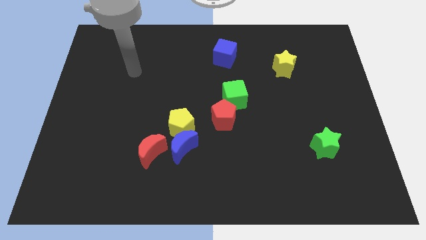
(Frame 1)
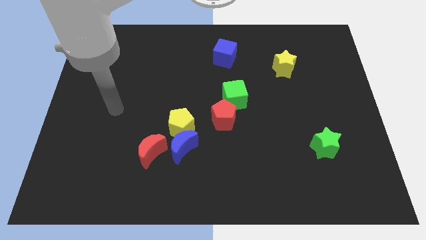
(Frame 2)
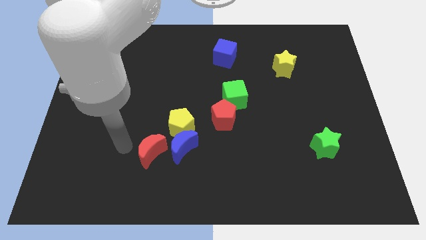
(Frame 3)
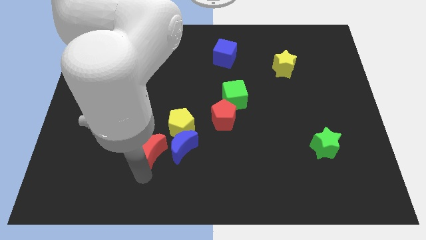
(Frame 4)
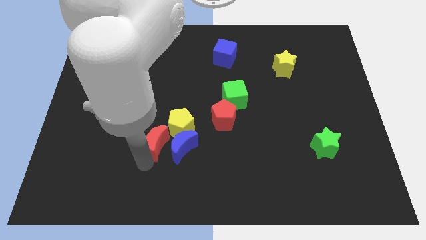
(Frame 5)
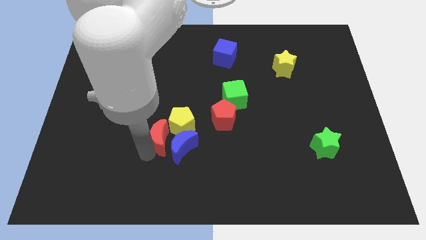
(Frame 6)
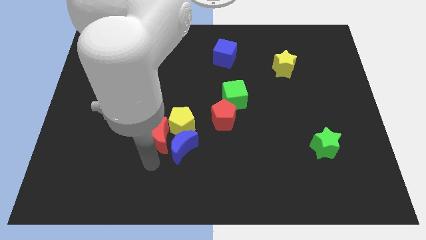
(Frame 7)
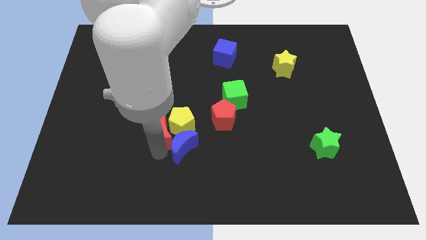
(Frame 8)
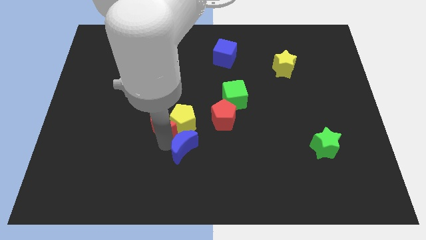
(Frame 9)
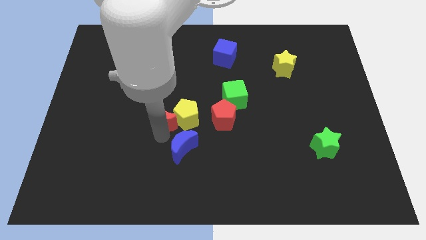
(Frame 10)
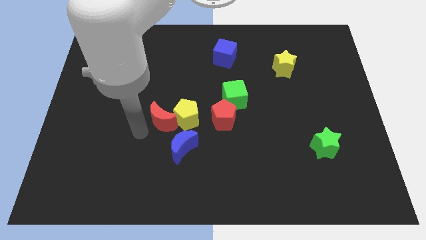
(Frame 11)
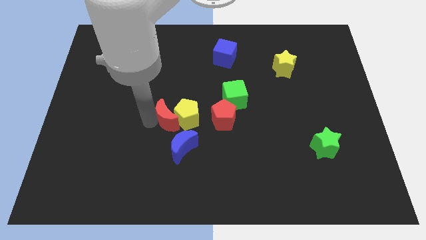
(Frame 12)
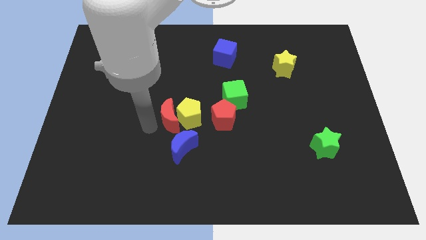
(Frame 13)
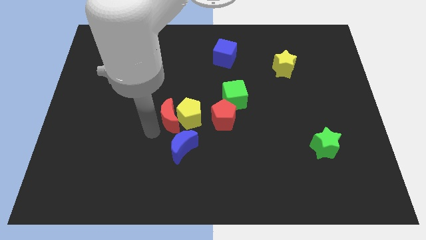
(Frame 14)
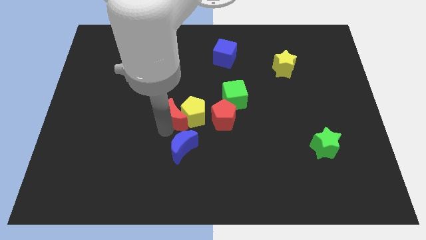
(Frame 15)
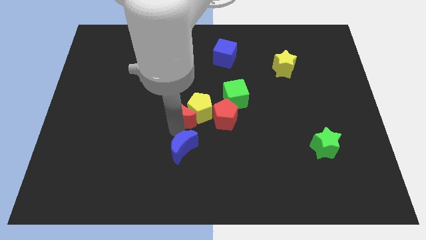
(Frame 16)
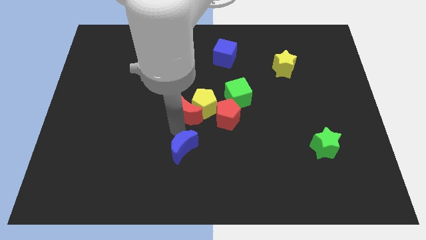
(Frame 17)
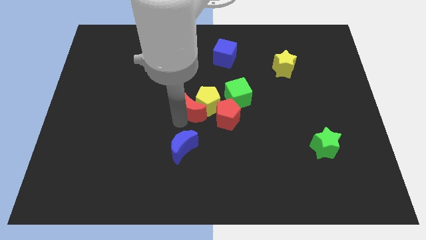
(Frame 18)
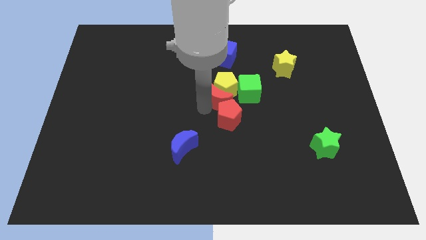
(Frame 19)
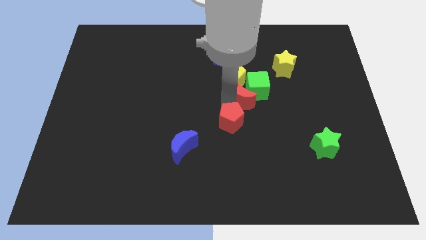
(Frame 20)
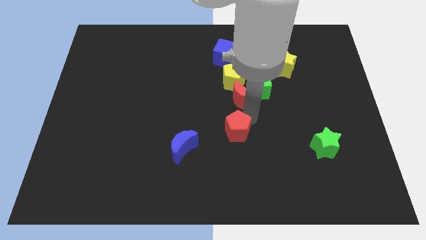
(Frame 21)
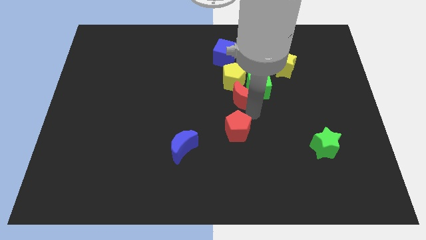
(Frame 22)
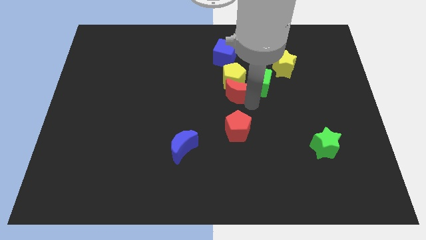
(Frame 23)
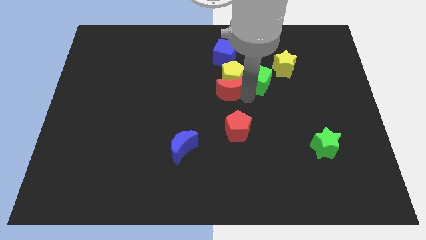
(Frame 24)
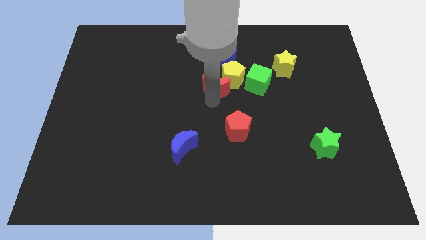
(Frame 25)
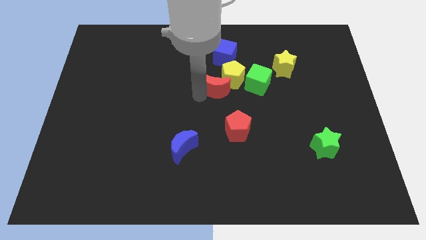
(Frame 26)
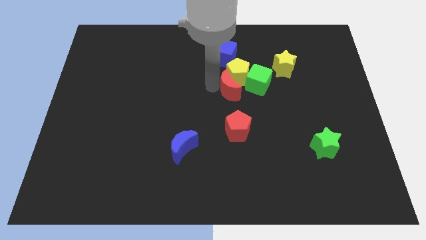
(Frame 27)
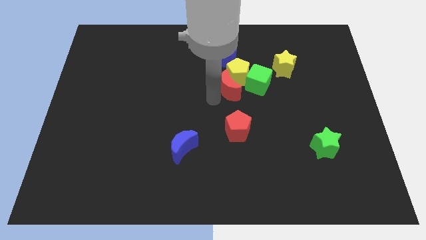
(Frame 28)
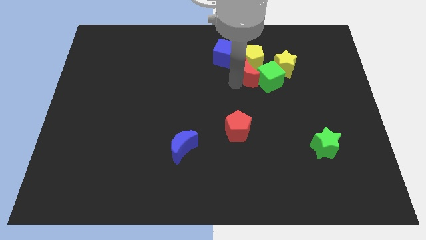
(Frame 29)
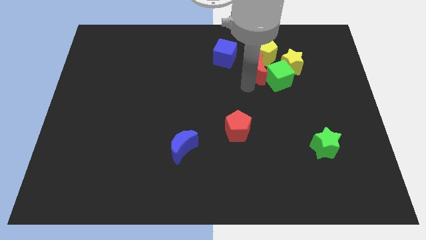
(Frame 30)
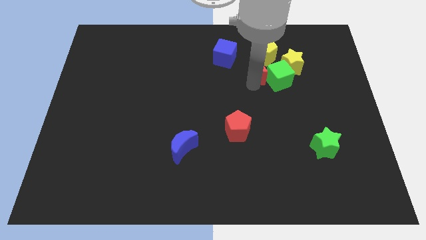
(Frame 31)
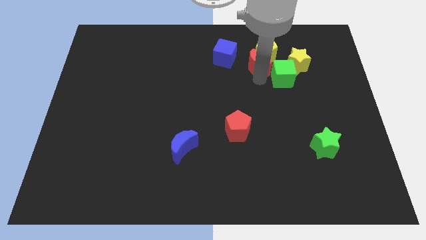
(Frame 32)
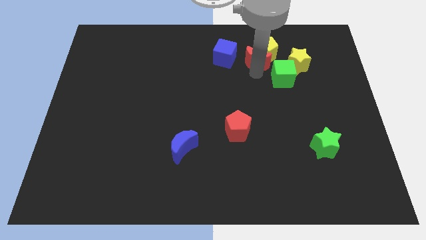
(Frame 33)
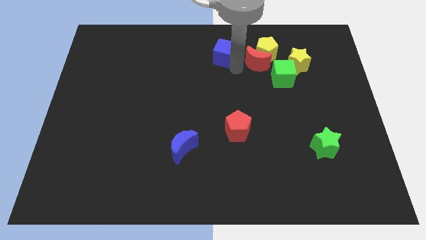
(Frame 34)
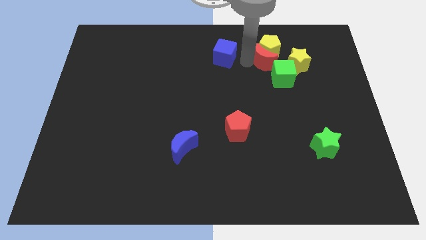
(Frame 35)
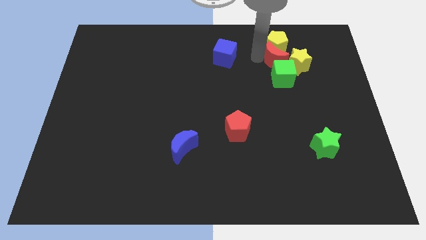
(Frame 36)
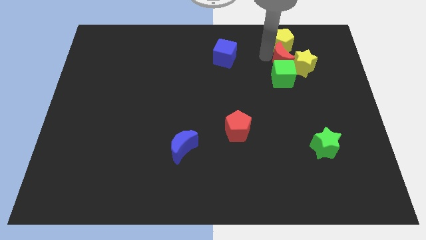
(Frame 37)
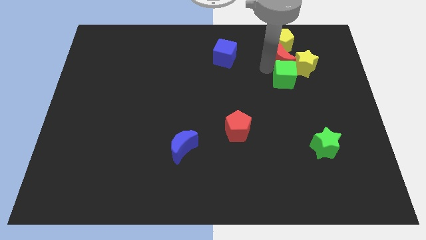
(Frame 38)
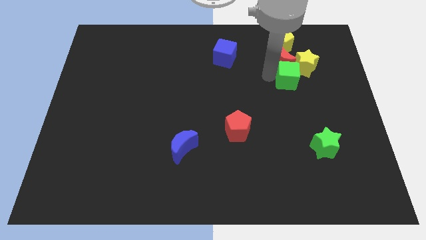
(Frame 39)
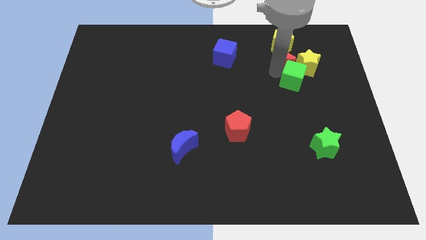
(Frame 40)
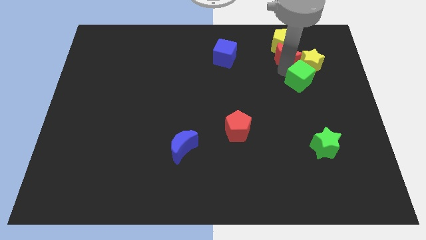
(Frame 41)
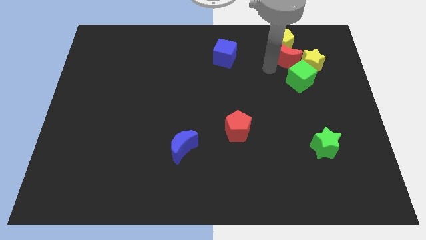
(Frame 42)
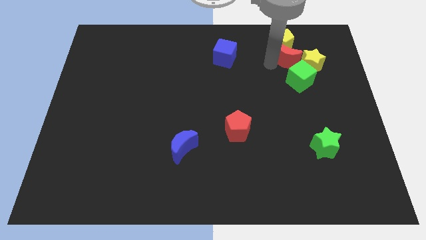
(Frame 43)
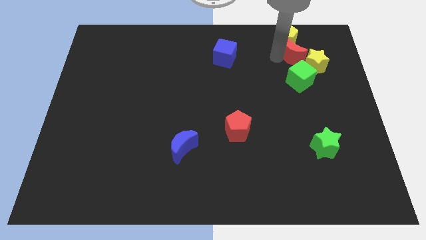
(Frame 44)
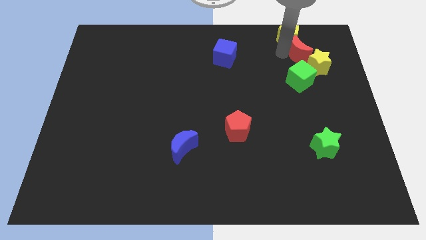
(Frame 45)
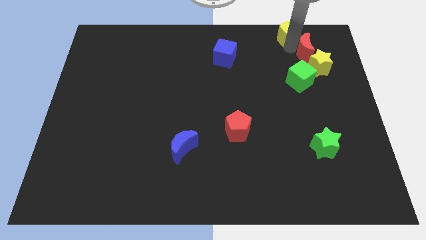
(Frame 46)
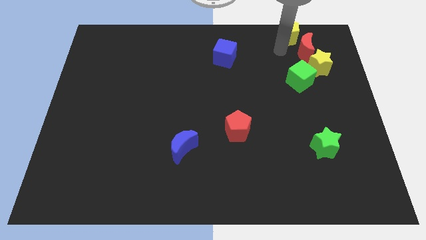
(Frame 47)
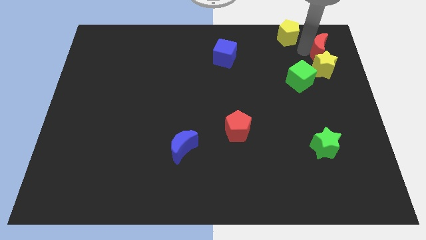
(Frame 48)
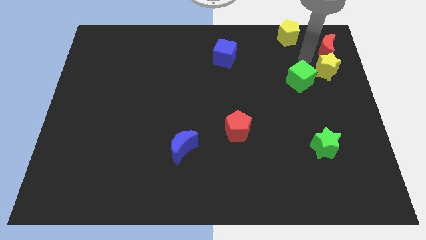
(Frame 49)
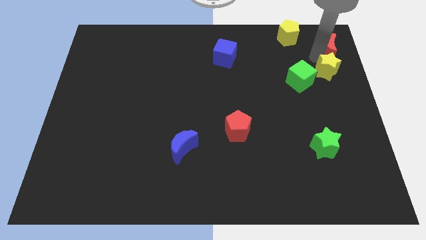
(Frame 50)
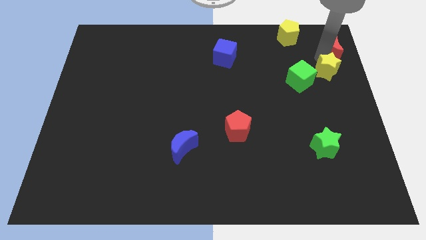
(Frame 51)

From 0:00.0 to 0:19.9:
move the red moon to the top right of the board

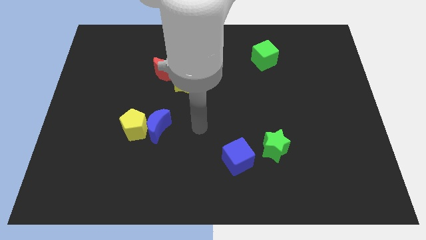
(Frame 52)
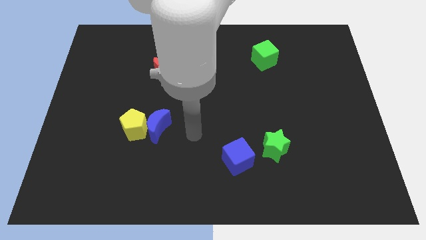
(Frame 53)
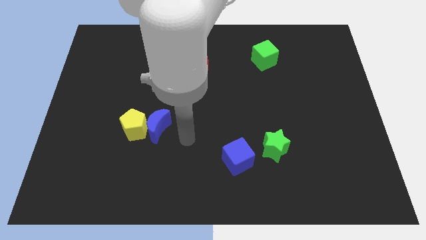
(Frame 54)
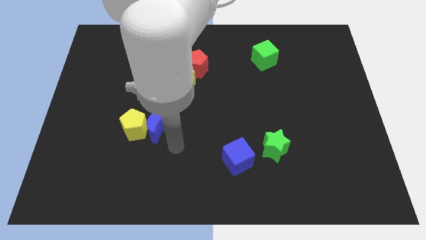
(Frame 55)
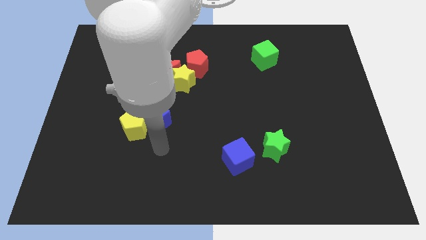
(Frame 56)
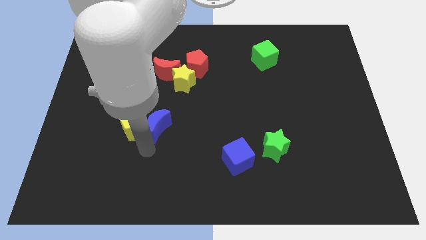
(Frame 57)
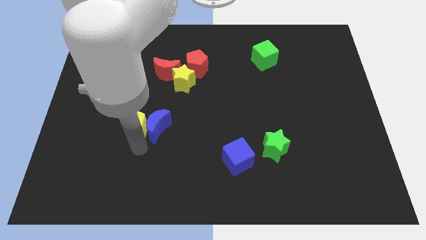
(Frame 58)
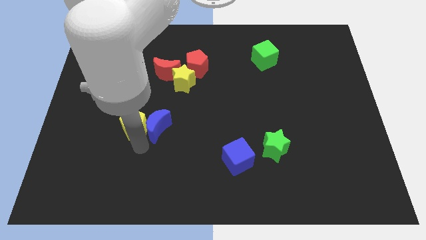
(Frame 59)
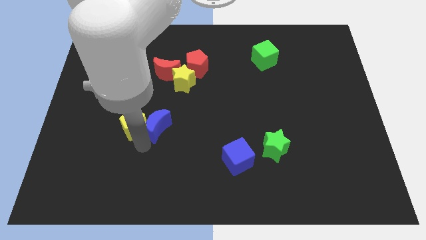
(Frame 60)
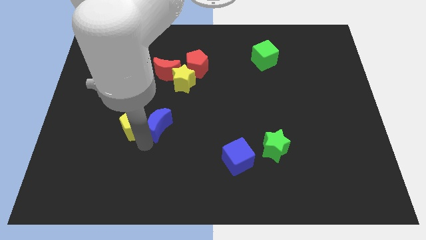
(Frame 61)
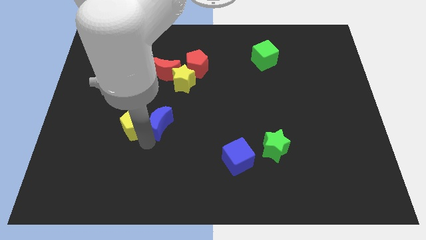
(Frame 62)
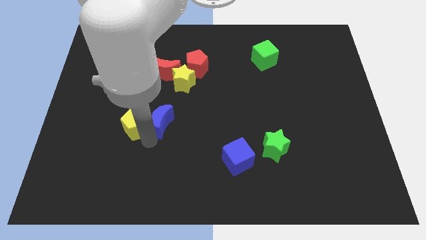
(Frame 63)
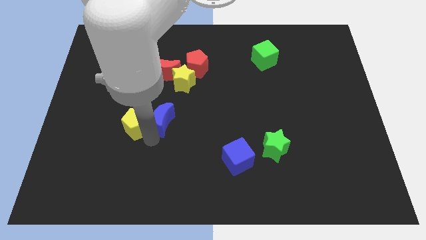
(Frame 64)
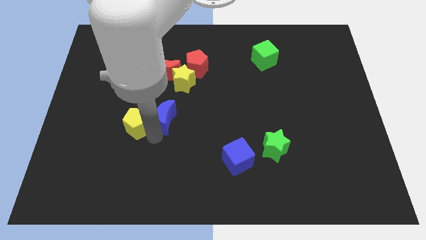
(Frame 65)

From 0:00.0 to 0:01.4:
move the blue moon to the center
